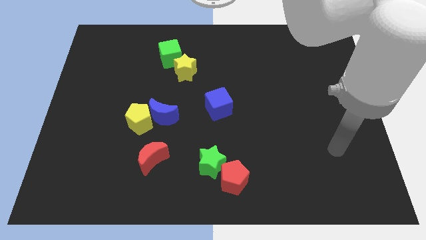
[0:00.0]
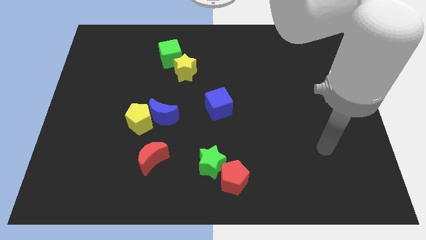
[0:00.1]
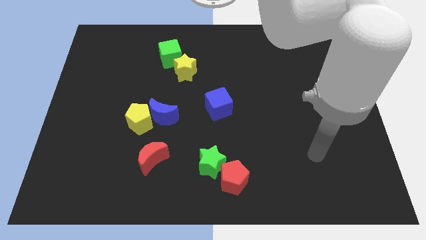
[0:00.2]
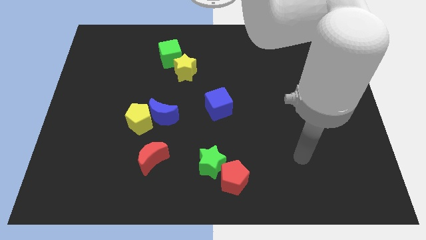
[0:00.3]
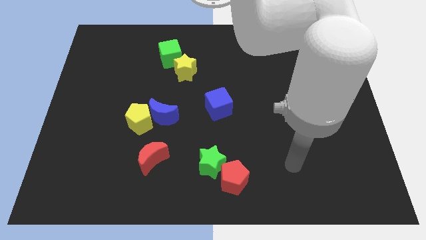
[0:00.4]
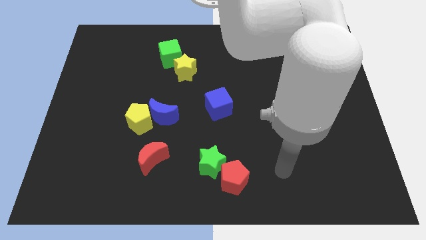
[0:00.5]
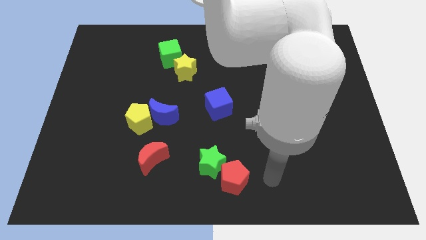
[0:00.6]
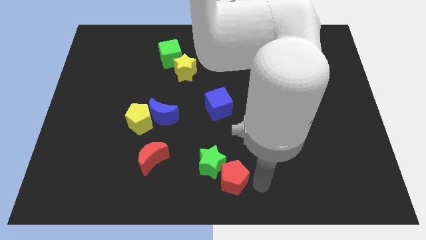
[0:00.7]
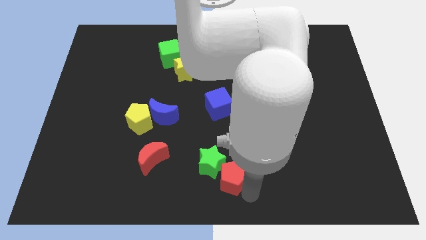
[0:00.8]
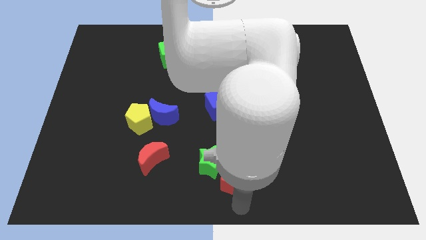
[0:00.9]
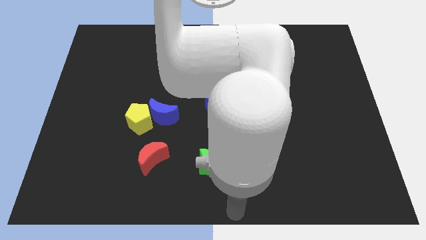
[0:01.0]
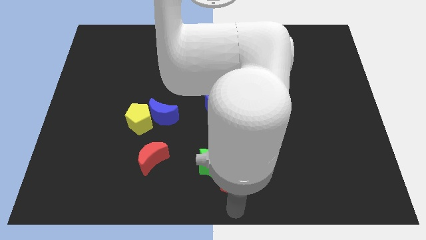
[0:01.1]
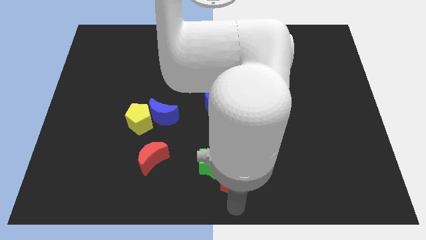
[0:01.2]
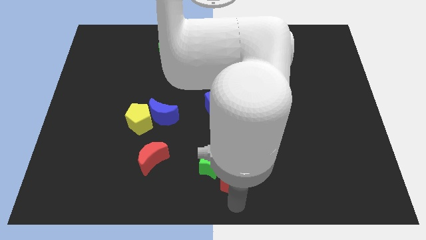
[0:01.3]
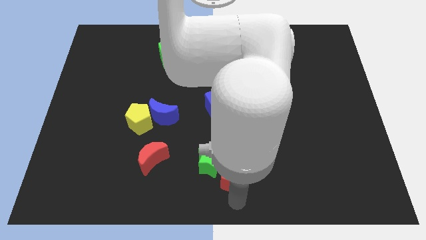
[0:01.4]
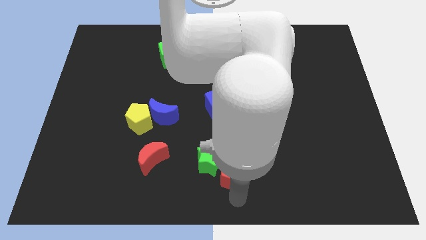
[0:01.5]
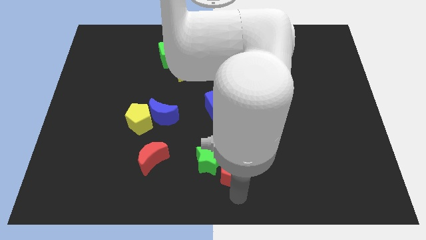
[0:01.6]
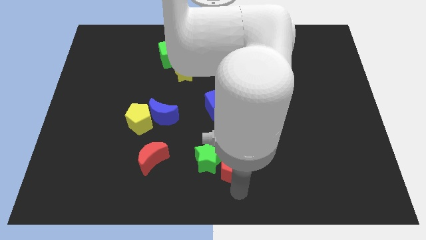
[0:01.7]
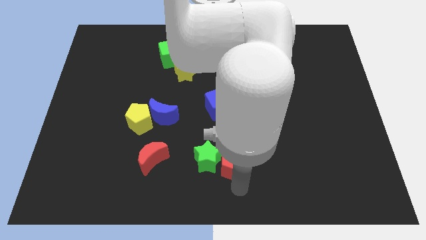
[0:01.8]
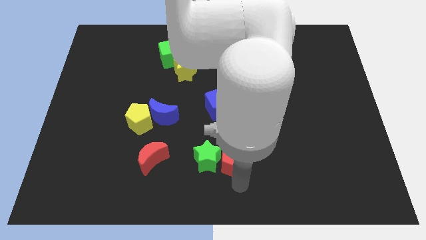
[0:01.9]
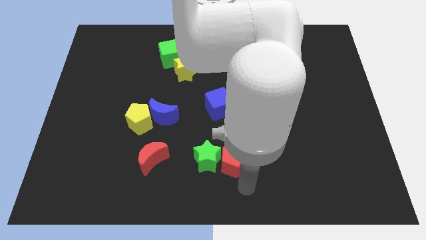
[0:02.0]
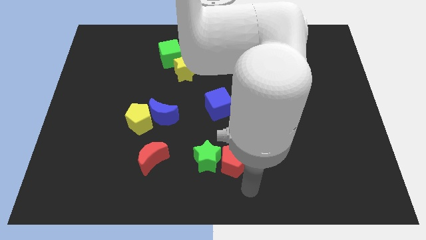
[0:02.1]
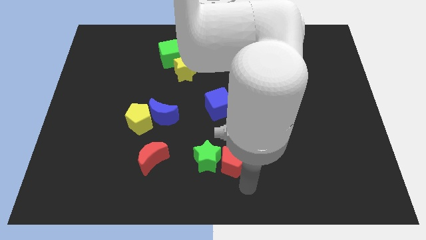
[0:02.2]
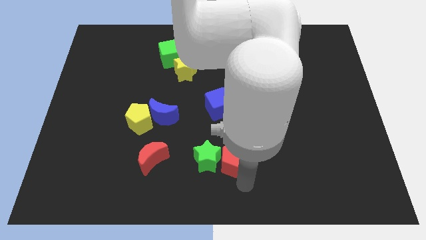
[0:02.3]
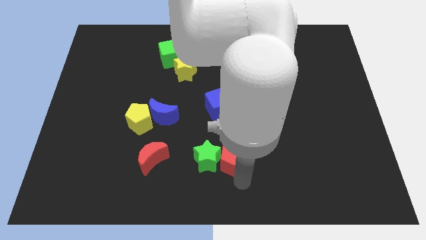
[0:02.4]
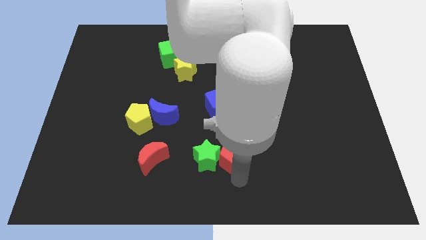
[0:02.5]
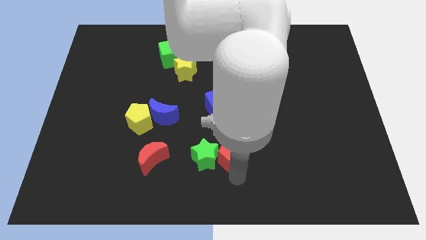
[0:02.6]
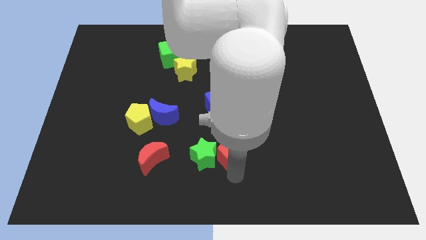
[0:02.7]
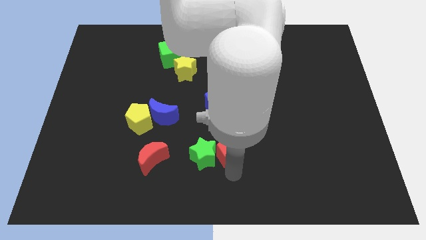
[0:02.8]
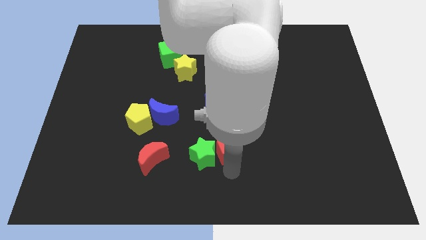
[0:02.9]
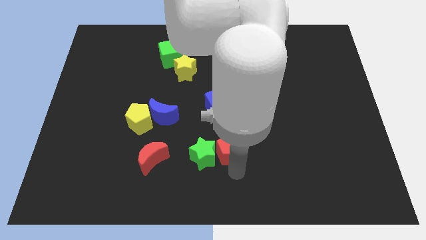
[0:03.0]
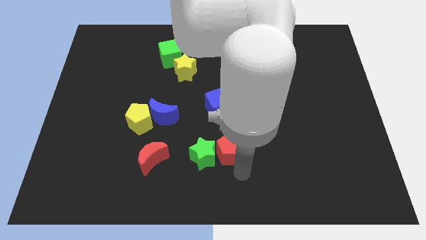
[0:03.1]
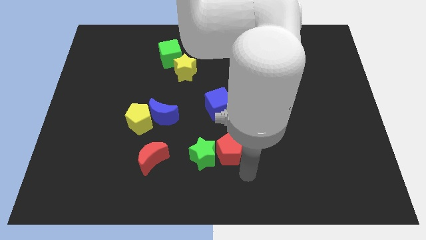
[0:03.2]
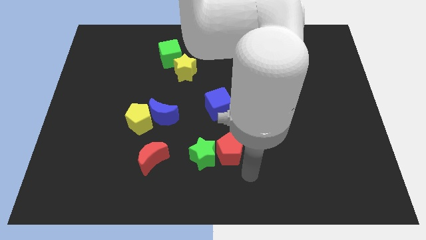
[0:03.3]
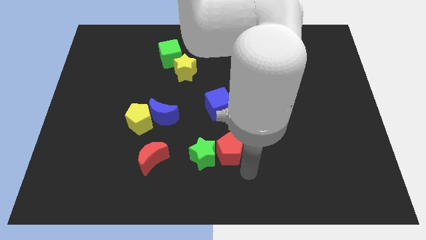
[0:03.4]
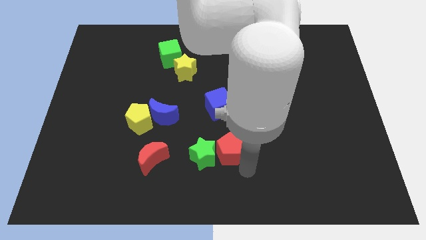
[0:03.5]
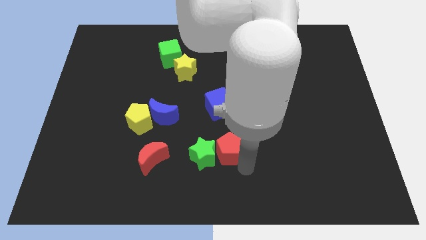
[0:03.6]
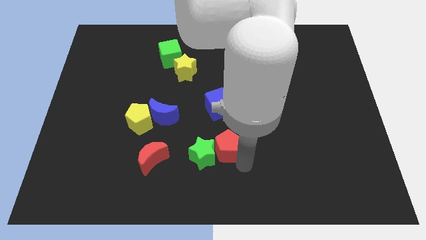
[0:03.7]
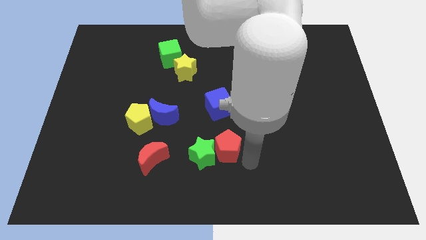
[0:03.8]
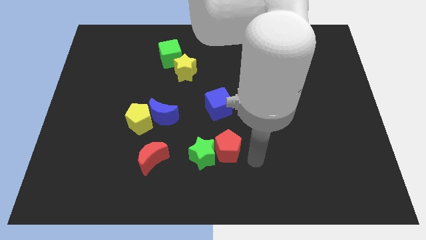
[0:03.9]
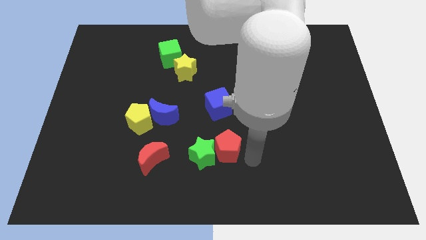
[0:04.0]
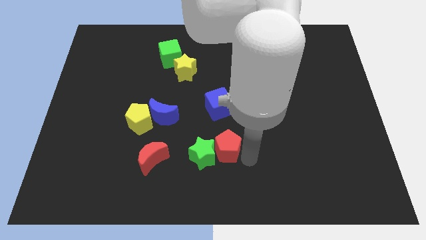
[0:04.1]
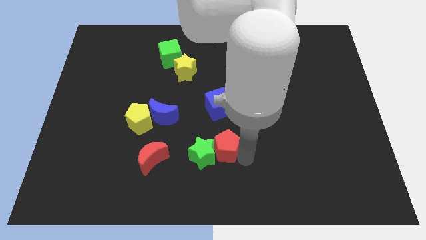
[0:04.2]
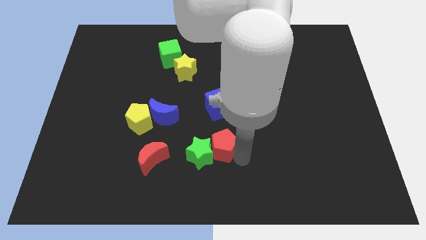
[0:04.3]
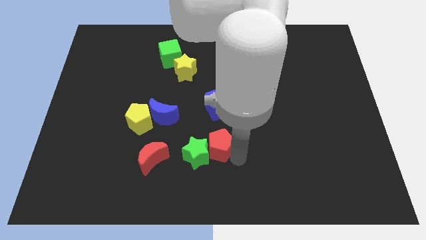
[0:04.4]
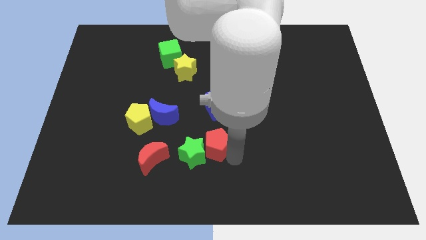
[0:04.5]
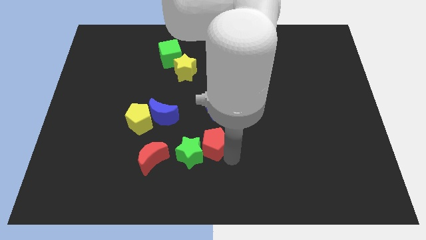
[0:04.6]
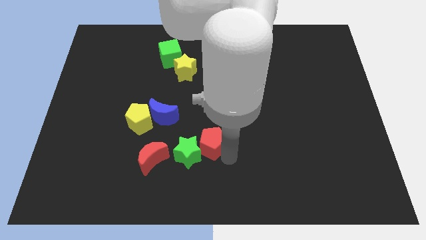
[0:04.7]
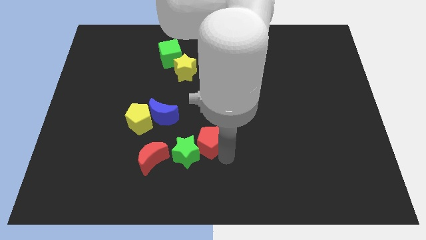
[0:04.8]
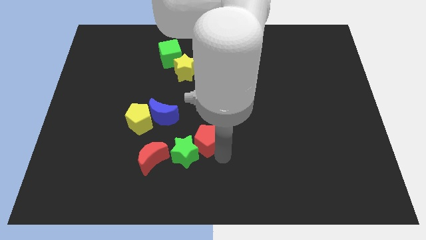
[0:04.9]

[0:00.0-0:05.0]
put the red pentagon to the bottom right of the blue moon

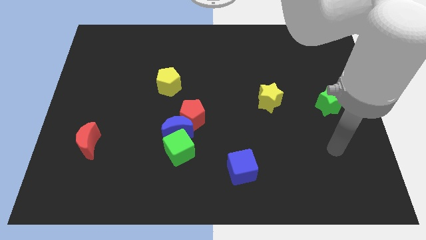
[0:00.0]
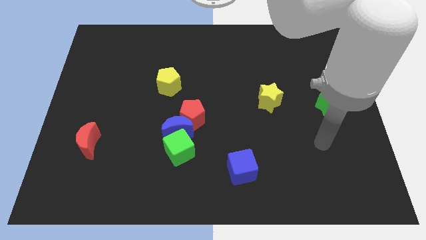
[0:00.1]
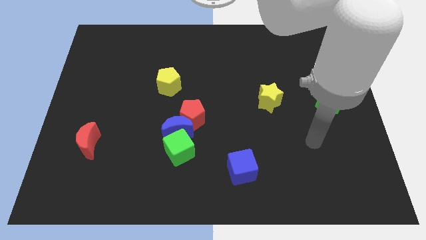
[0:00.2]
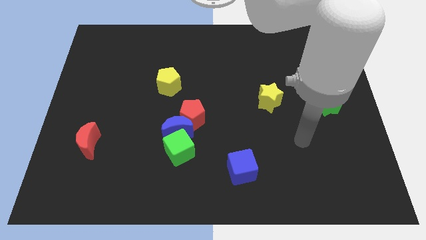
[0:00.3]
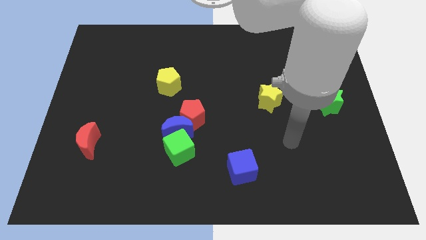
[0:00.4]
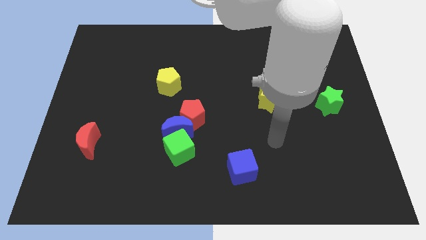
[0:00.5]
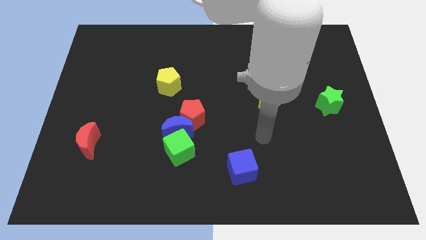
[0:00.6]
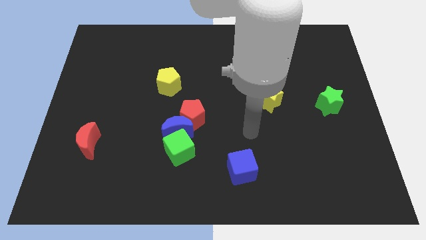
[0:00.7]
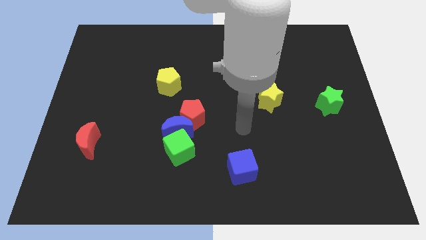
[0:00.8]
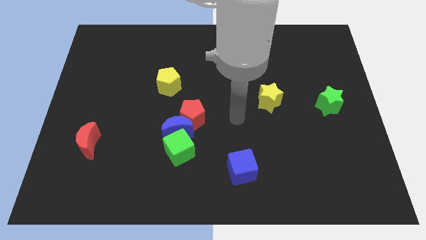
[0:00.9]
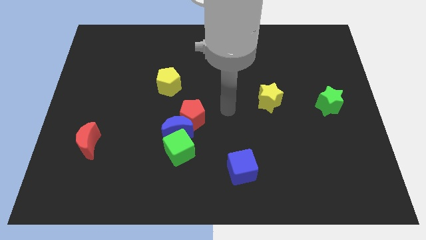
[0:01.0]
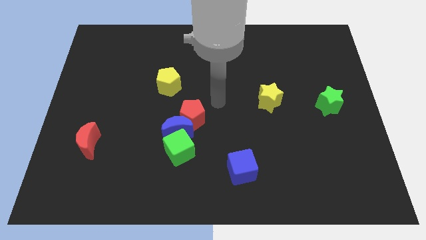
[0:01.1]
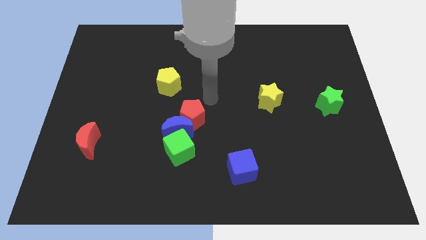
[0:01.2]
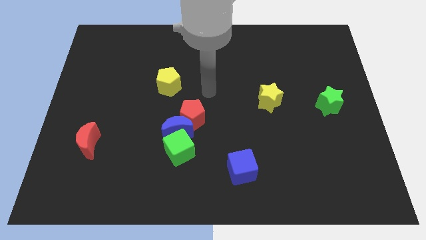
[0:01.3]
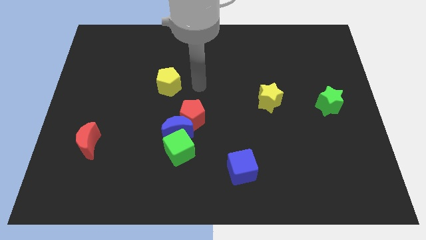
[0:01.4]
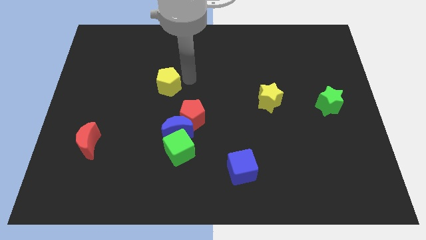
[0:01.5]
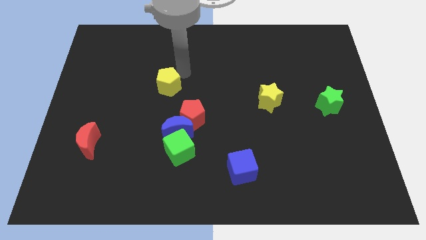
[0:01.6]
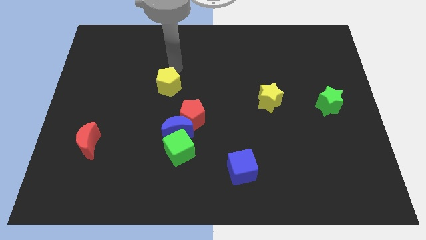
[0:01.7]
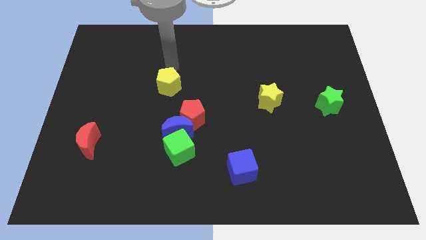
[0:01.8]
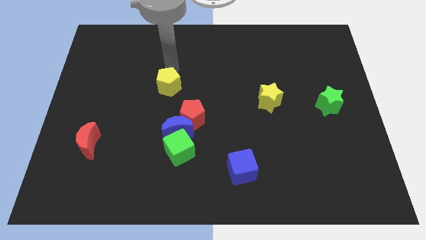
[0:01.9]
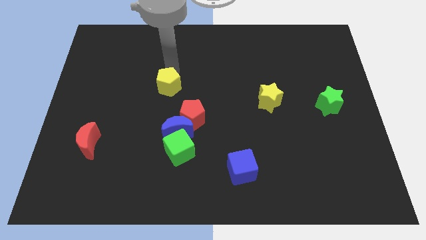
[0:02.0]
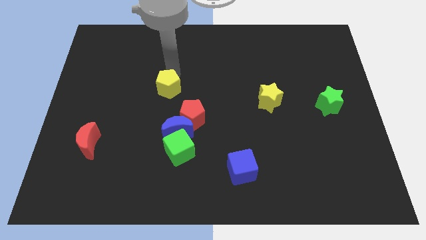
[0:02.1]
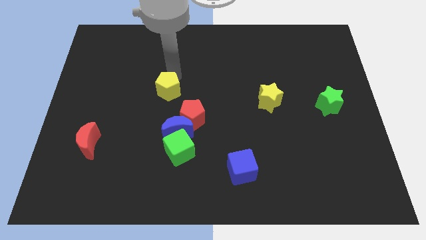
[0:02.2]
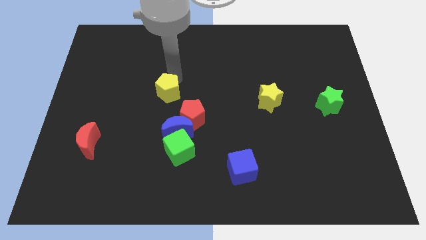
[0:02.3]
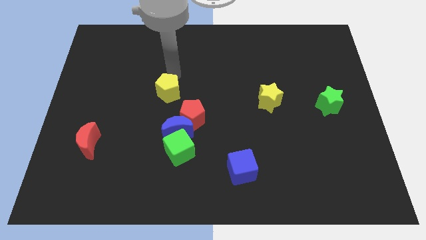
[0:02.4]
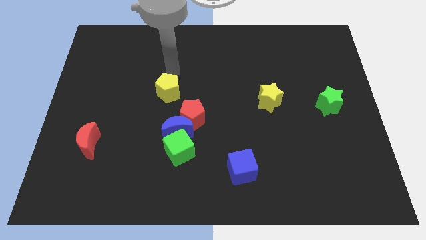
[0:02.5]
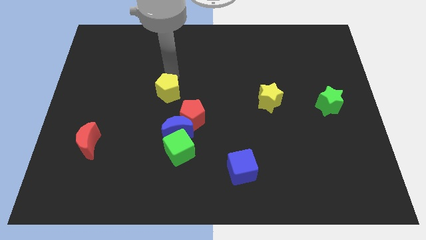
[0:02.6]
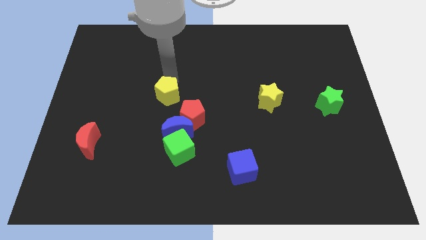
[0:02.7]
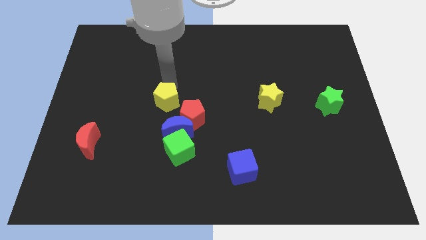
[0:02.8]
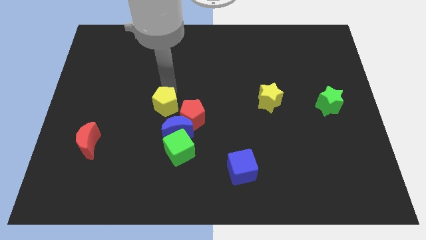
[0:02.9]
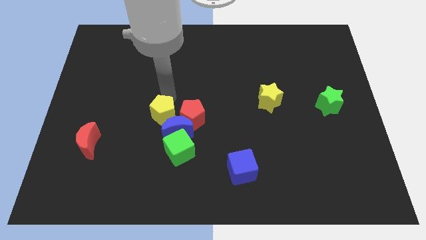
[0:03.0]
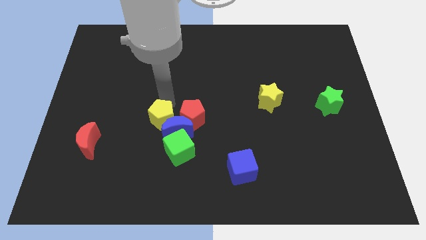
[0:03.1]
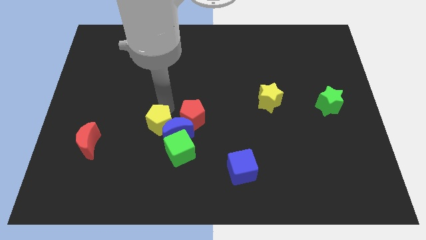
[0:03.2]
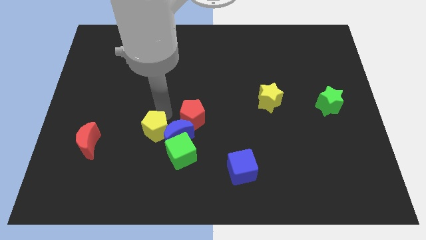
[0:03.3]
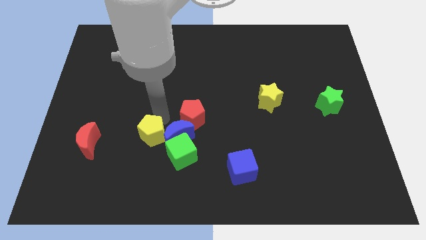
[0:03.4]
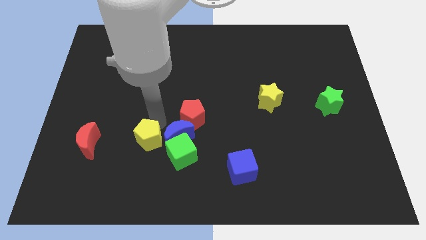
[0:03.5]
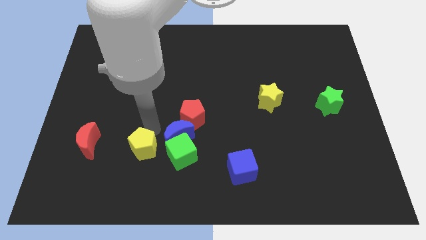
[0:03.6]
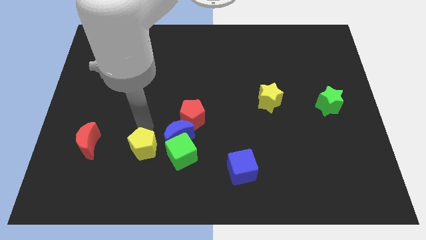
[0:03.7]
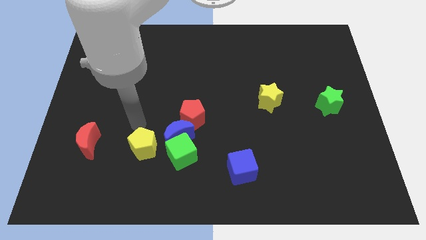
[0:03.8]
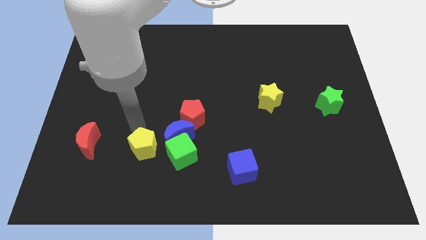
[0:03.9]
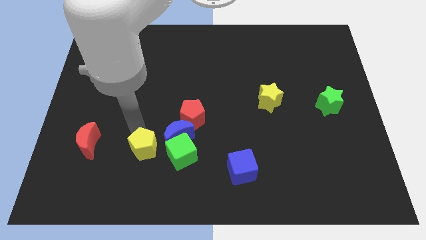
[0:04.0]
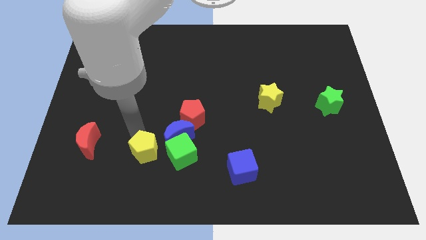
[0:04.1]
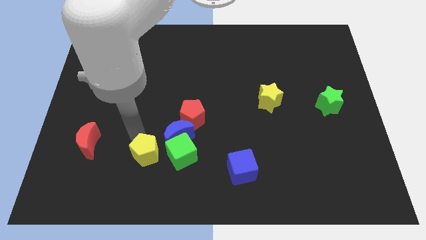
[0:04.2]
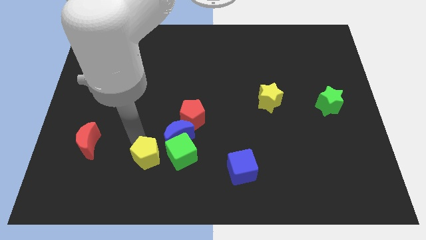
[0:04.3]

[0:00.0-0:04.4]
slide the yellow pentagon to the bottom left side of the green cube
